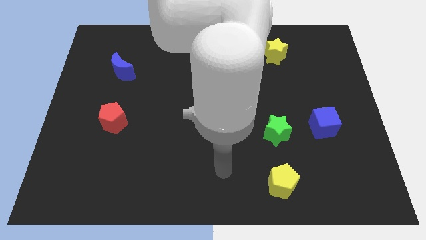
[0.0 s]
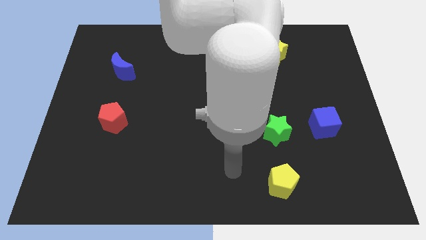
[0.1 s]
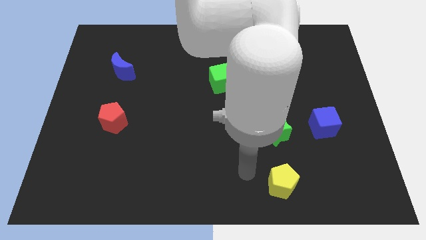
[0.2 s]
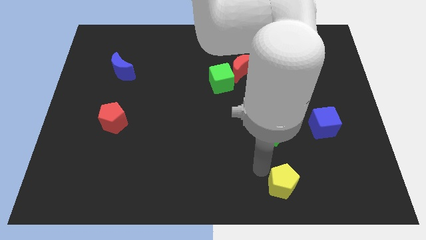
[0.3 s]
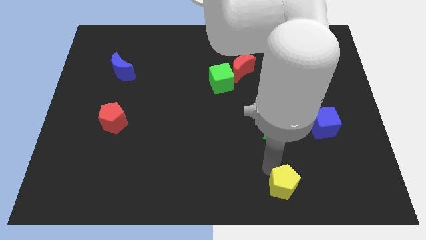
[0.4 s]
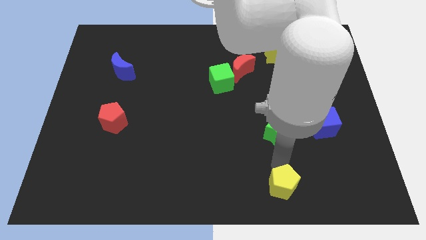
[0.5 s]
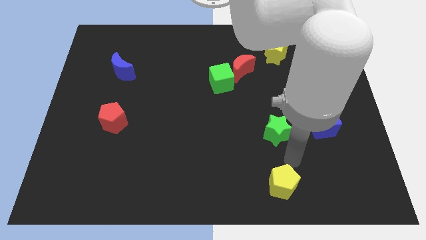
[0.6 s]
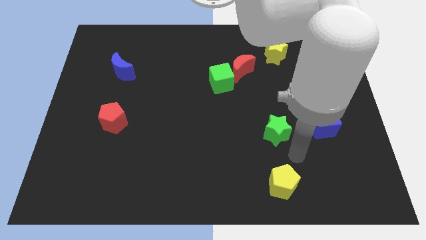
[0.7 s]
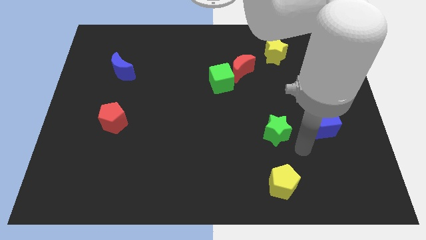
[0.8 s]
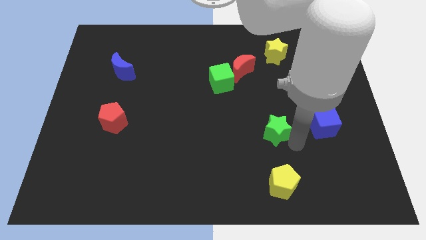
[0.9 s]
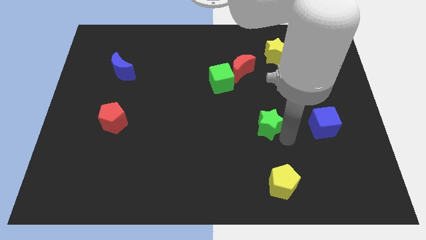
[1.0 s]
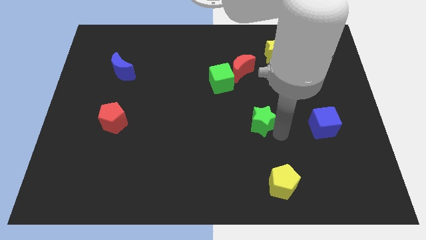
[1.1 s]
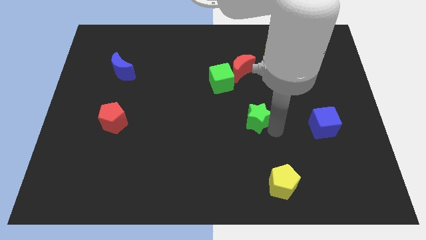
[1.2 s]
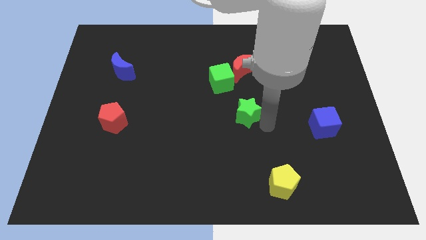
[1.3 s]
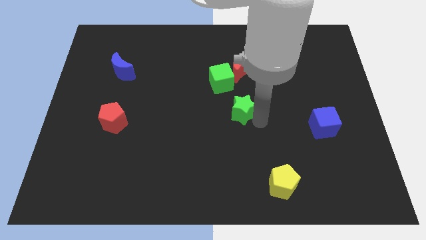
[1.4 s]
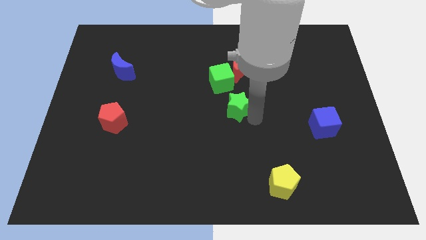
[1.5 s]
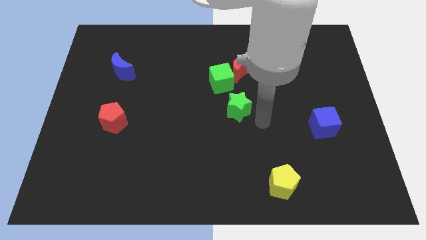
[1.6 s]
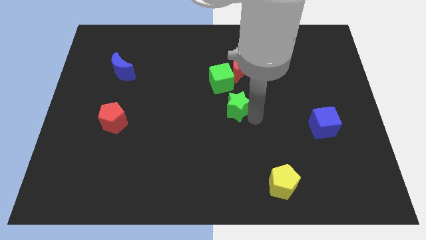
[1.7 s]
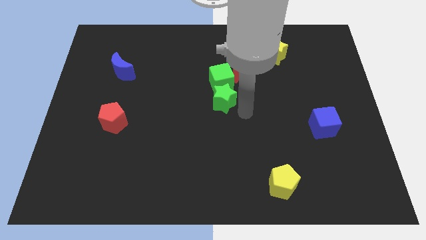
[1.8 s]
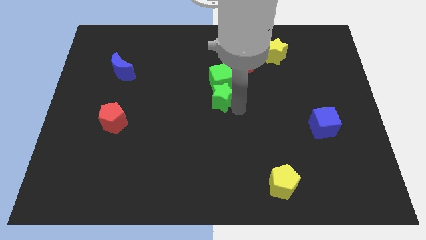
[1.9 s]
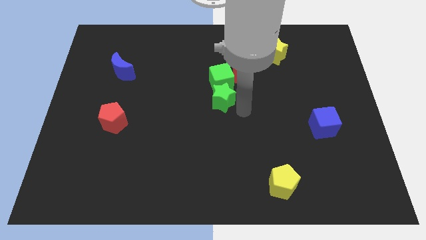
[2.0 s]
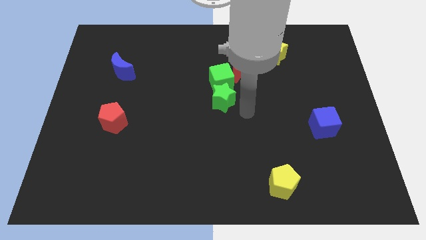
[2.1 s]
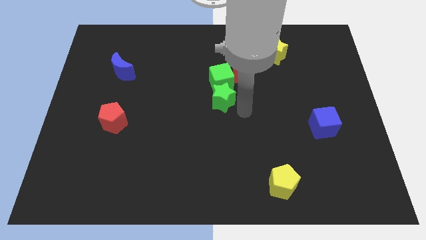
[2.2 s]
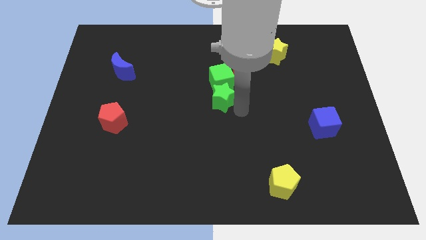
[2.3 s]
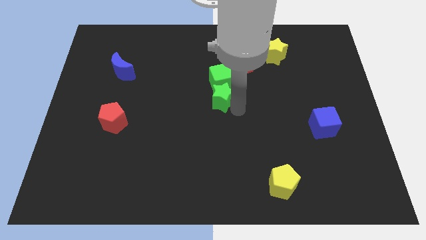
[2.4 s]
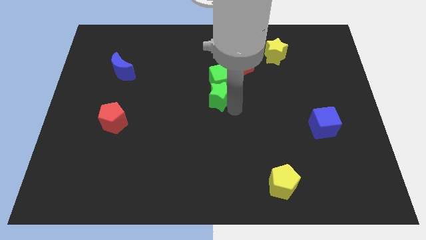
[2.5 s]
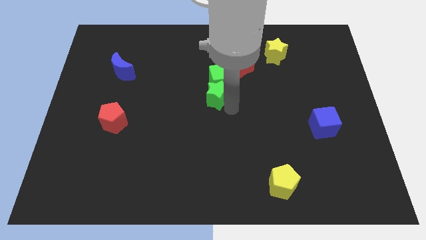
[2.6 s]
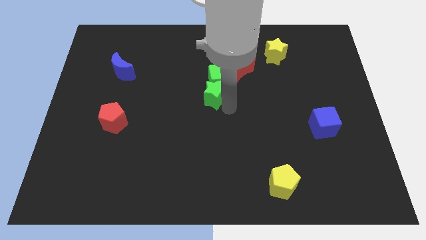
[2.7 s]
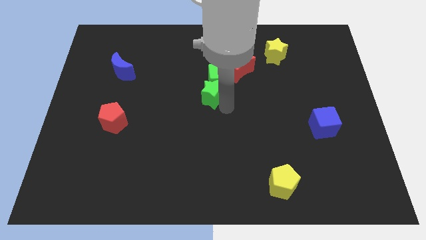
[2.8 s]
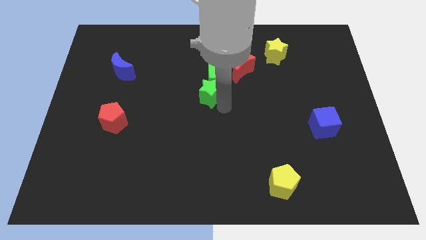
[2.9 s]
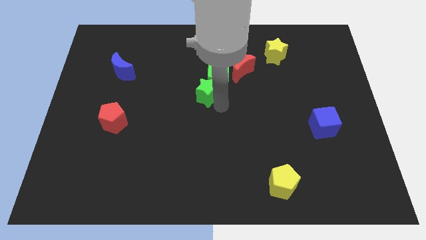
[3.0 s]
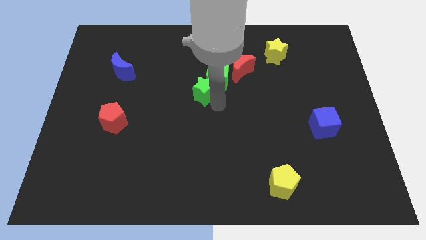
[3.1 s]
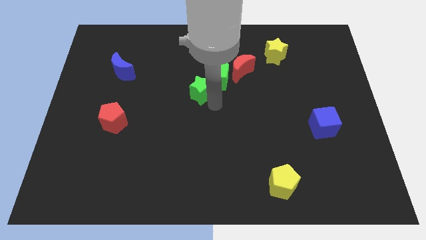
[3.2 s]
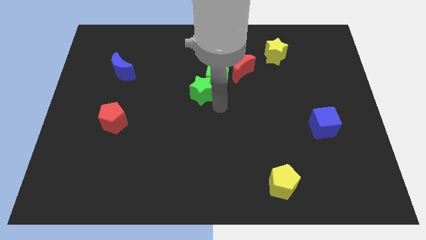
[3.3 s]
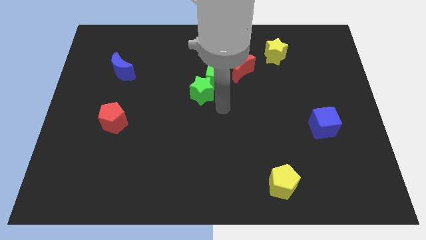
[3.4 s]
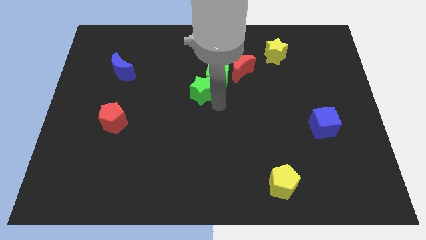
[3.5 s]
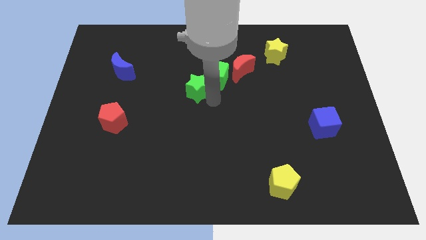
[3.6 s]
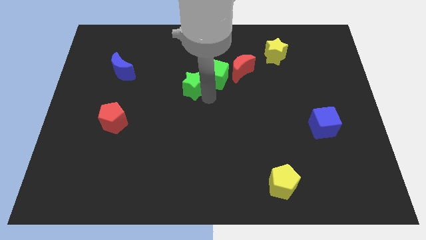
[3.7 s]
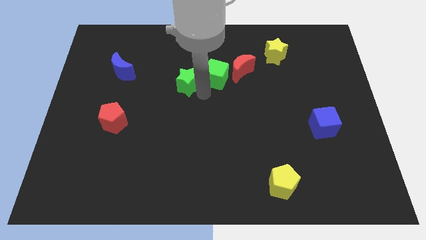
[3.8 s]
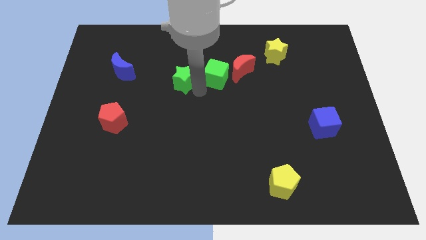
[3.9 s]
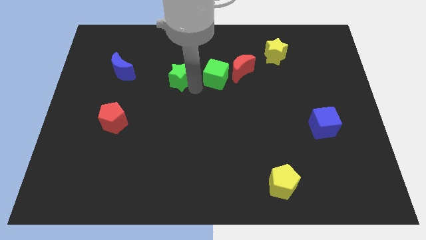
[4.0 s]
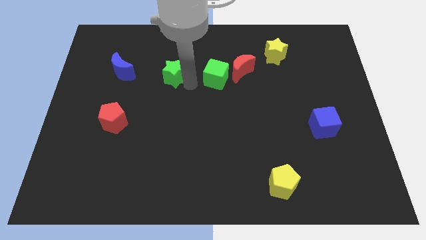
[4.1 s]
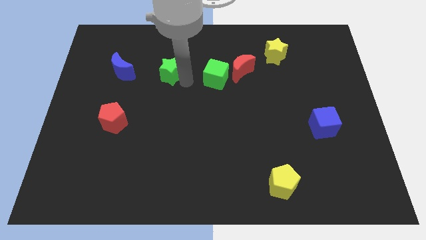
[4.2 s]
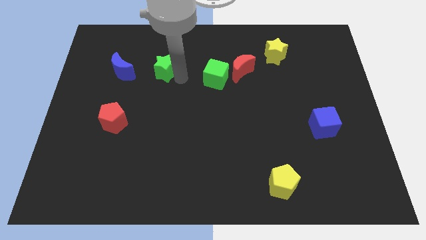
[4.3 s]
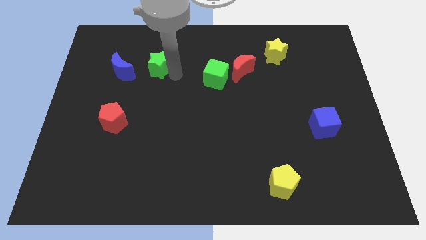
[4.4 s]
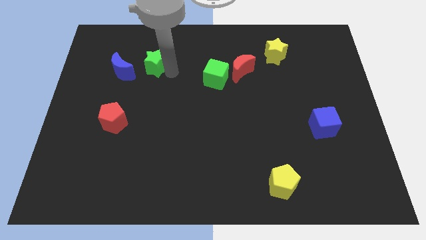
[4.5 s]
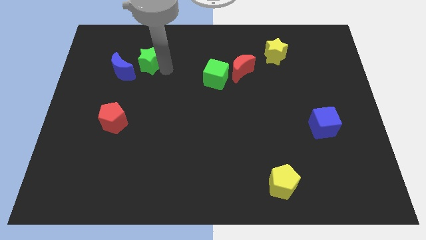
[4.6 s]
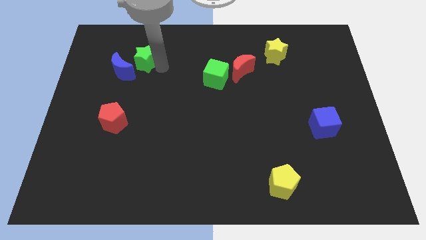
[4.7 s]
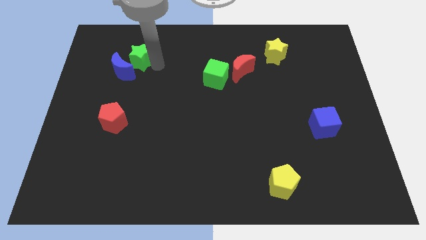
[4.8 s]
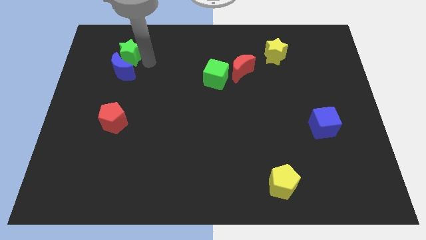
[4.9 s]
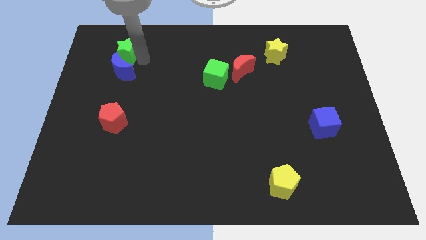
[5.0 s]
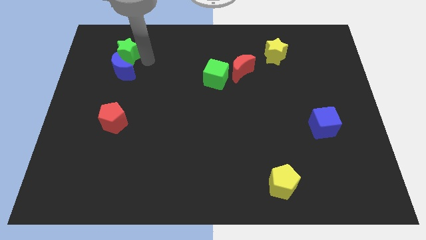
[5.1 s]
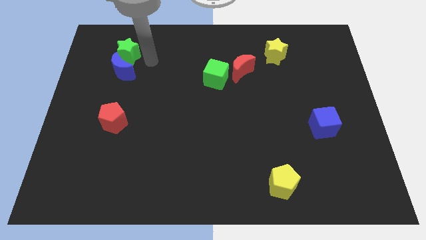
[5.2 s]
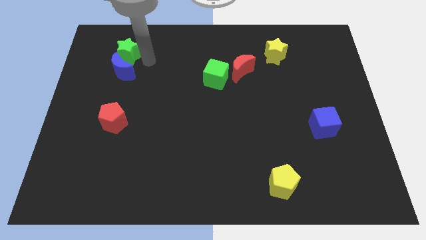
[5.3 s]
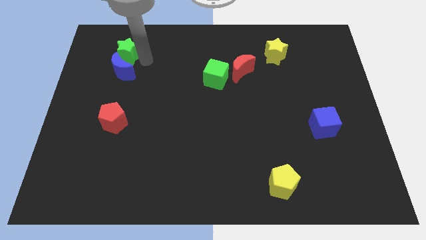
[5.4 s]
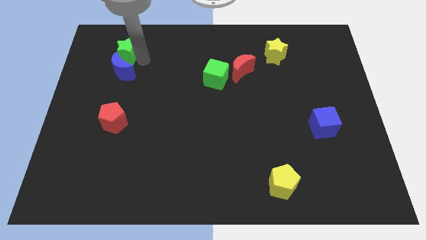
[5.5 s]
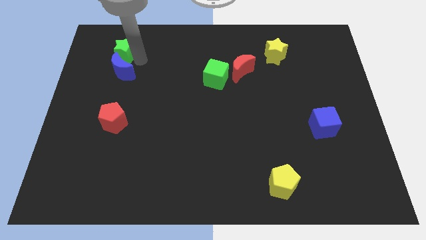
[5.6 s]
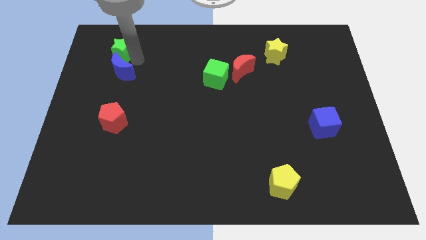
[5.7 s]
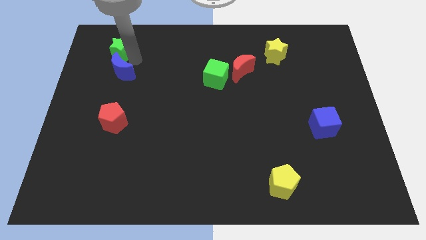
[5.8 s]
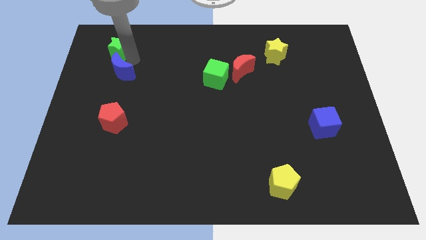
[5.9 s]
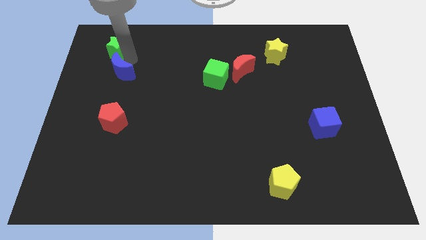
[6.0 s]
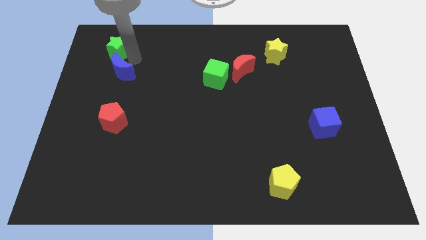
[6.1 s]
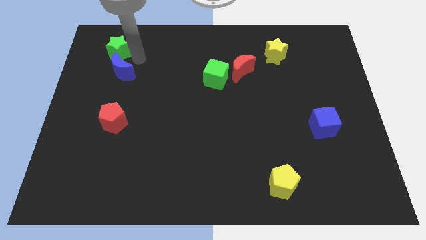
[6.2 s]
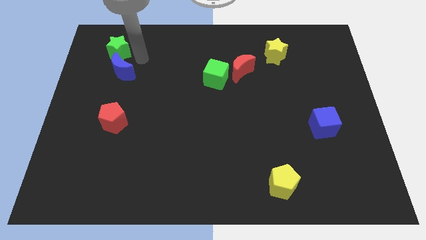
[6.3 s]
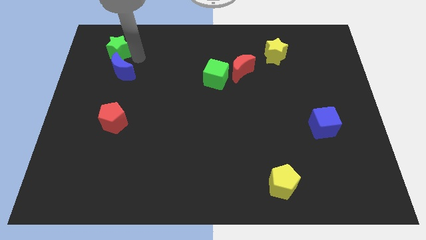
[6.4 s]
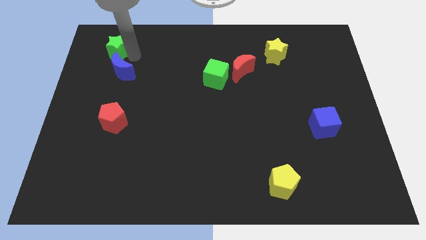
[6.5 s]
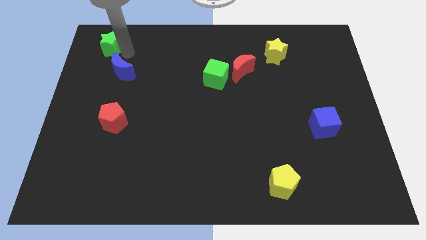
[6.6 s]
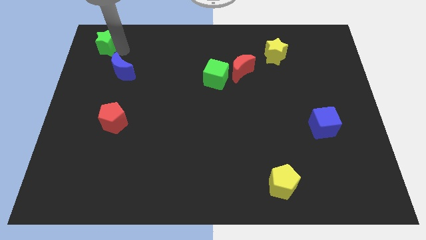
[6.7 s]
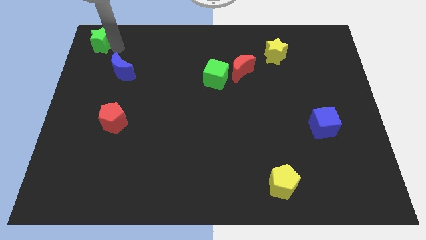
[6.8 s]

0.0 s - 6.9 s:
put the green star to the top left of the board
